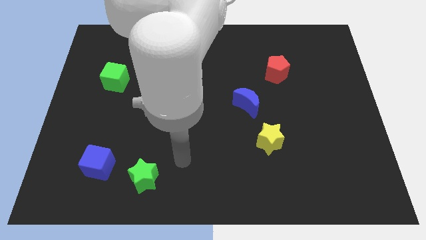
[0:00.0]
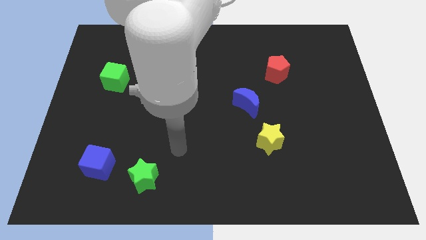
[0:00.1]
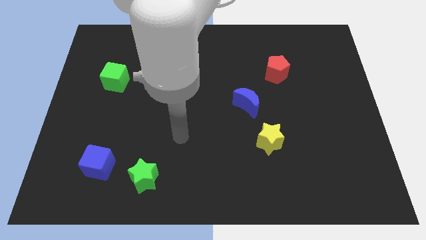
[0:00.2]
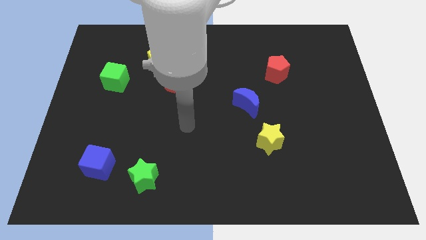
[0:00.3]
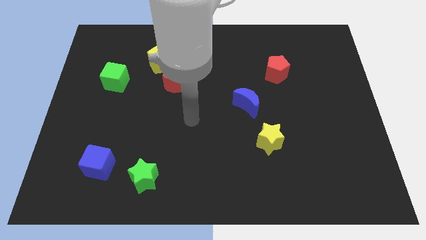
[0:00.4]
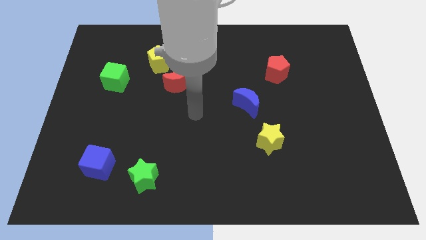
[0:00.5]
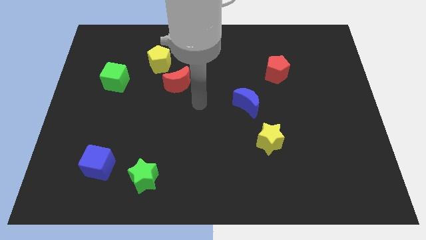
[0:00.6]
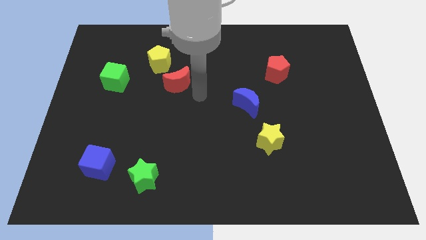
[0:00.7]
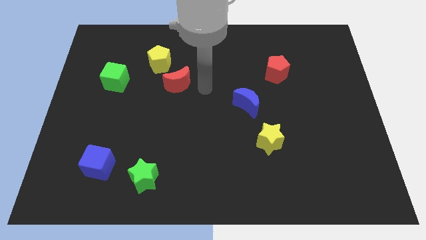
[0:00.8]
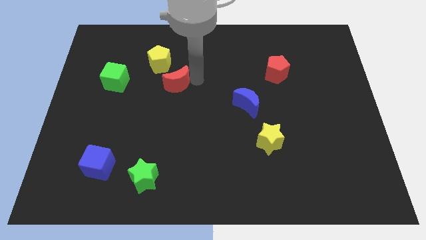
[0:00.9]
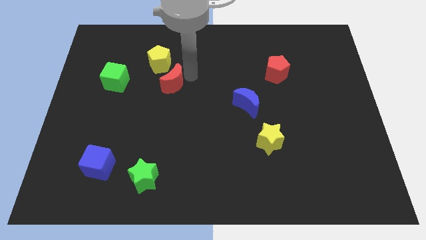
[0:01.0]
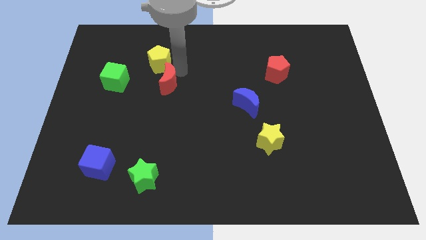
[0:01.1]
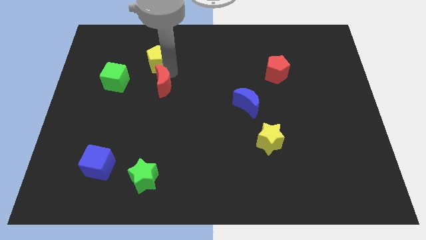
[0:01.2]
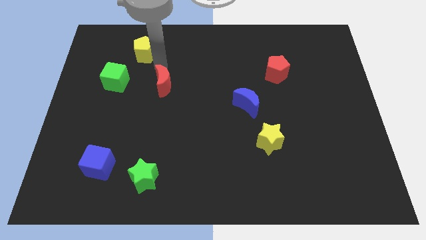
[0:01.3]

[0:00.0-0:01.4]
move the red moon away from the yellow pentagon

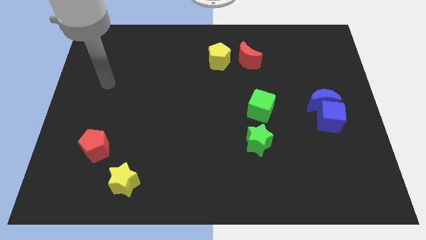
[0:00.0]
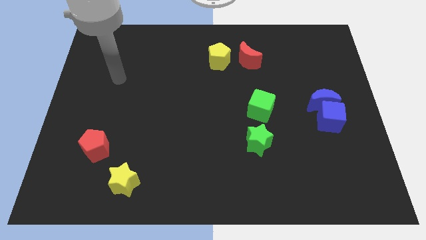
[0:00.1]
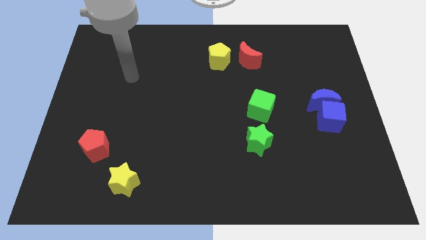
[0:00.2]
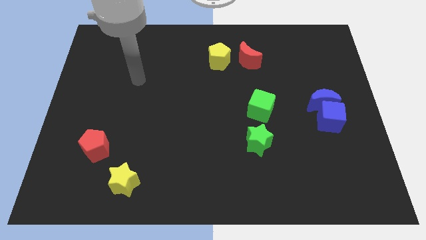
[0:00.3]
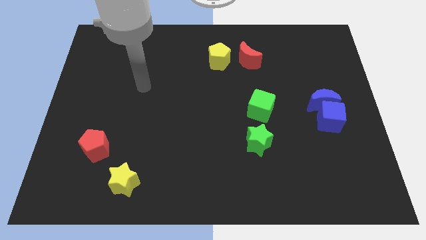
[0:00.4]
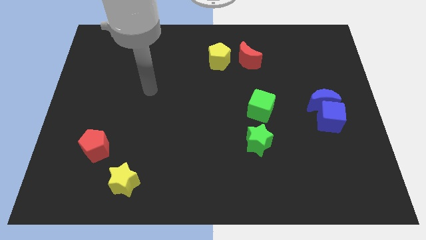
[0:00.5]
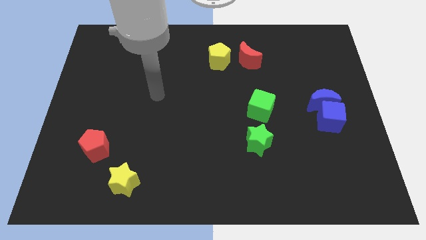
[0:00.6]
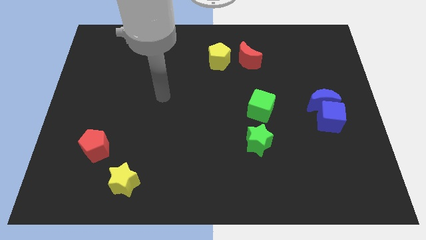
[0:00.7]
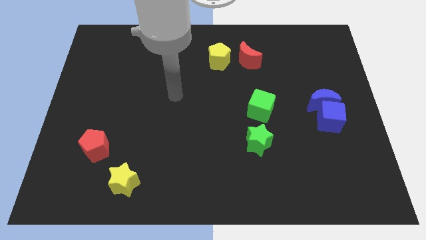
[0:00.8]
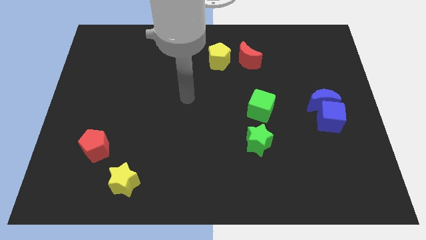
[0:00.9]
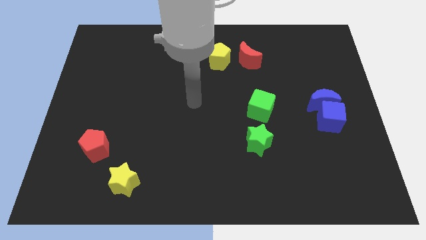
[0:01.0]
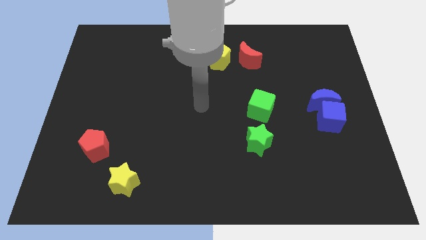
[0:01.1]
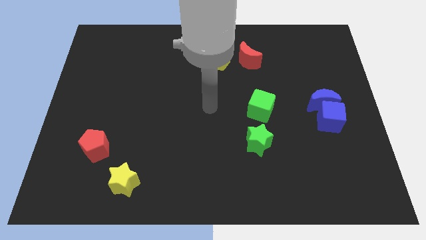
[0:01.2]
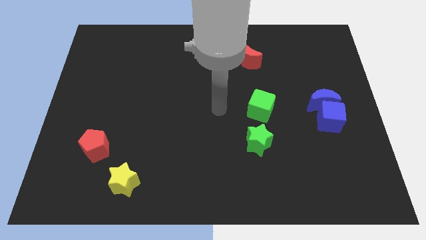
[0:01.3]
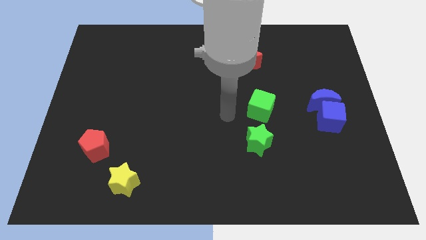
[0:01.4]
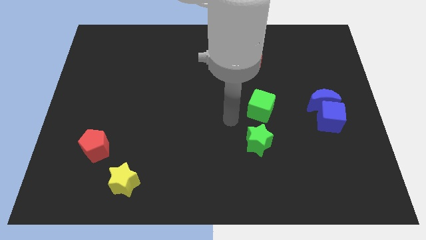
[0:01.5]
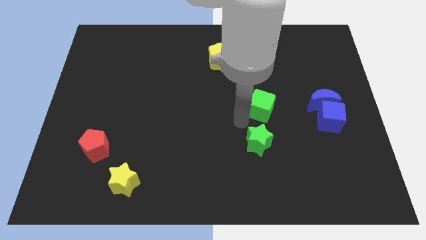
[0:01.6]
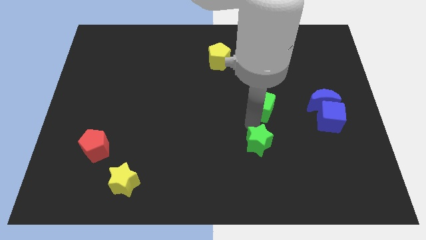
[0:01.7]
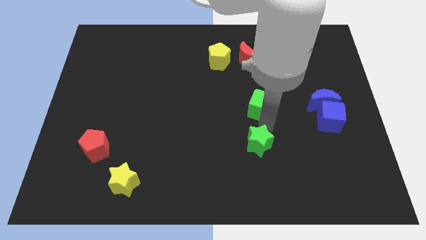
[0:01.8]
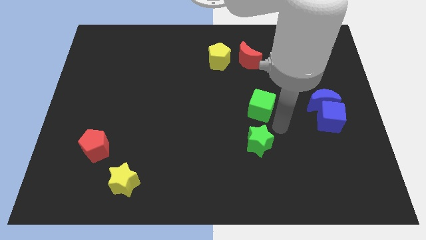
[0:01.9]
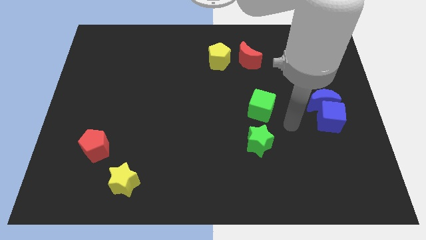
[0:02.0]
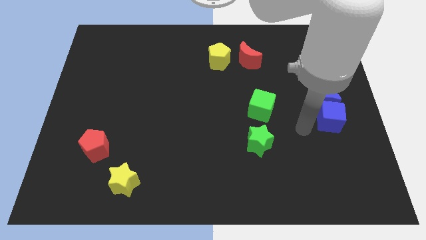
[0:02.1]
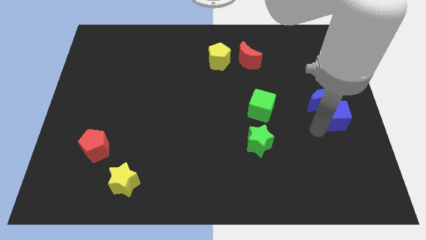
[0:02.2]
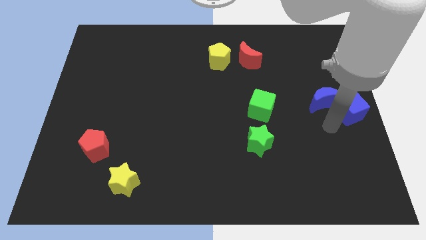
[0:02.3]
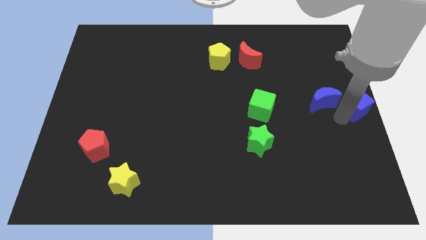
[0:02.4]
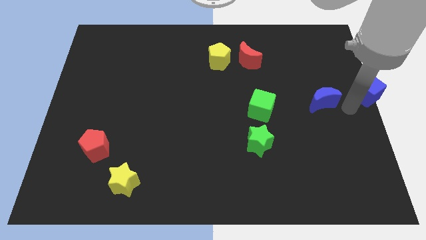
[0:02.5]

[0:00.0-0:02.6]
pull the blue moon apart from the blue cube

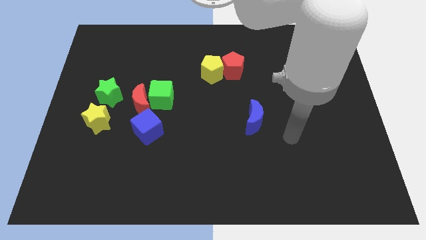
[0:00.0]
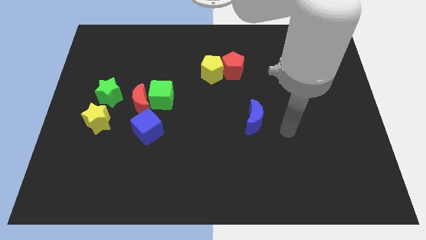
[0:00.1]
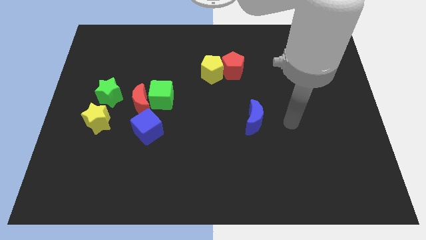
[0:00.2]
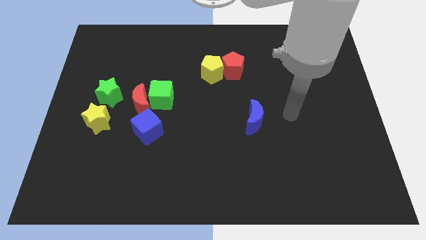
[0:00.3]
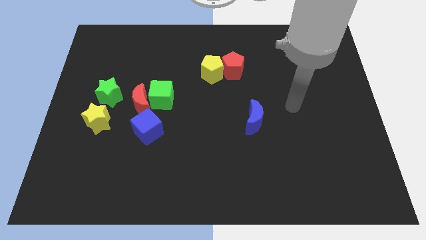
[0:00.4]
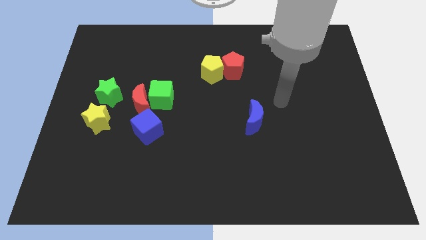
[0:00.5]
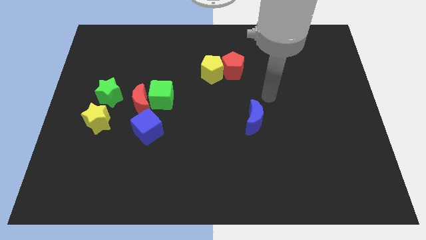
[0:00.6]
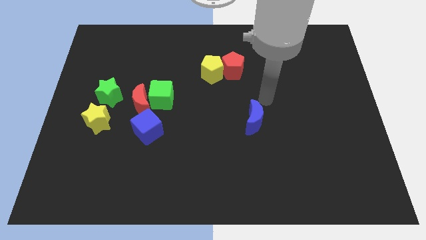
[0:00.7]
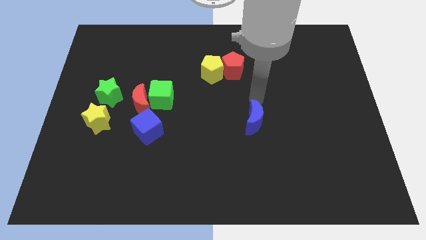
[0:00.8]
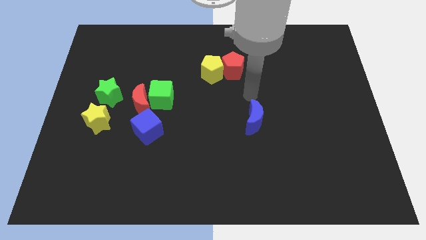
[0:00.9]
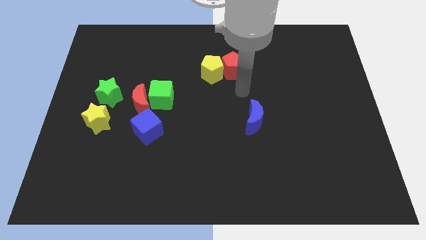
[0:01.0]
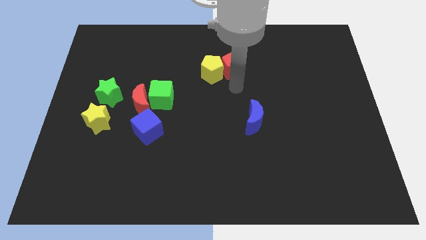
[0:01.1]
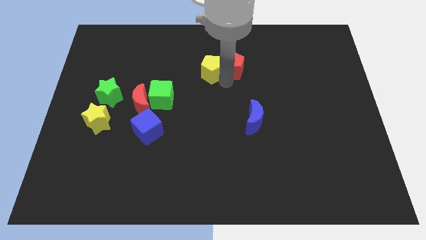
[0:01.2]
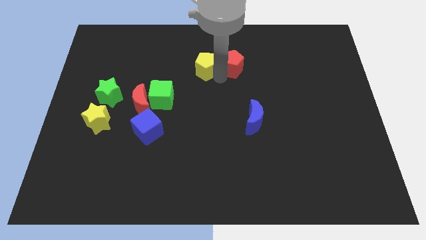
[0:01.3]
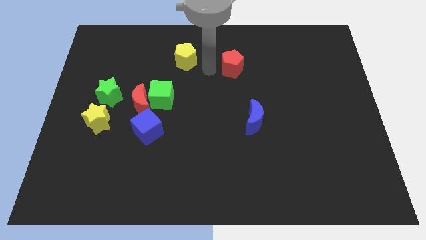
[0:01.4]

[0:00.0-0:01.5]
separate the red pentagon from the yellow pentagon

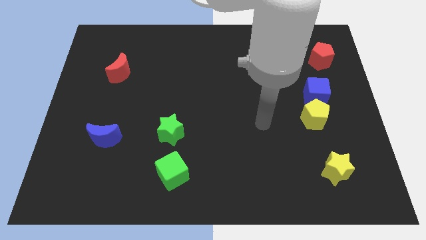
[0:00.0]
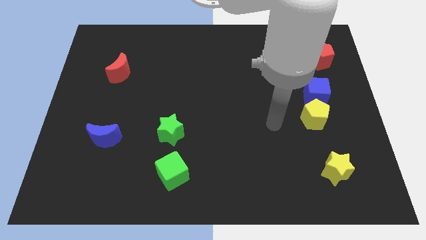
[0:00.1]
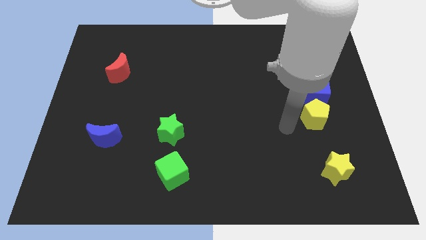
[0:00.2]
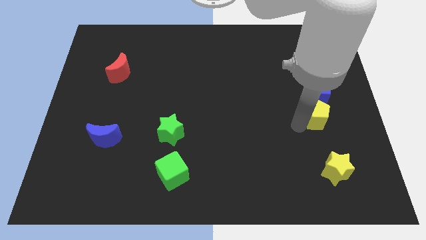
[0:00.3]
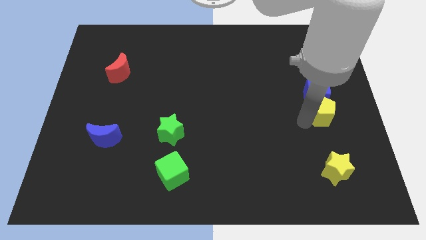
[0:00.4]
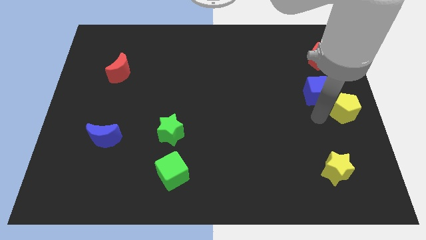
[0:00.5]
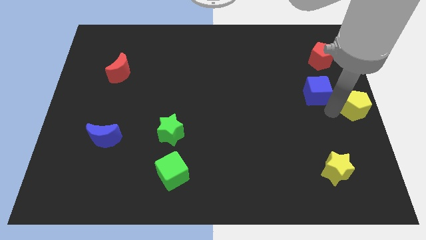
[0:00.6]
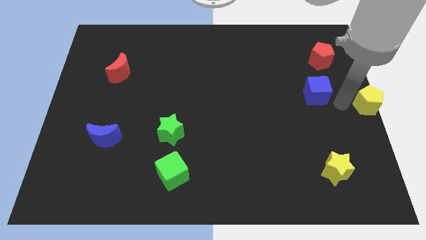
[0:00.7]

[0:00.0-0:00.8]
separate the blue cube from the yellow pentagon

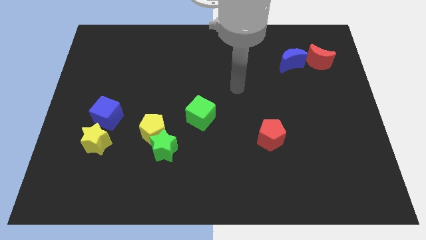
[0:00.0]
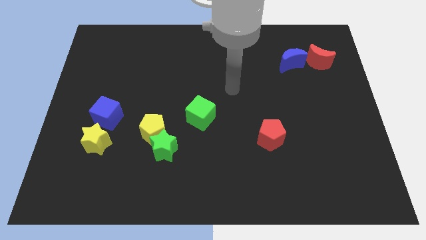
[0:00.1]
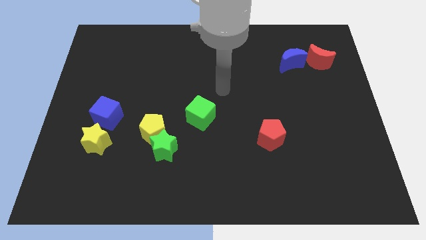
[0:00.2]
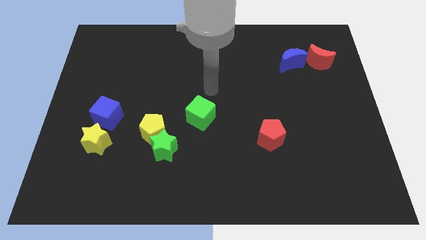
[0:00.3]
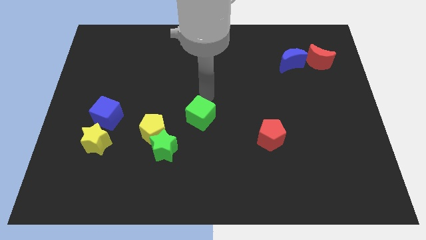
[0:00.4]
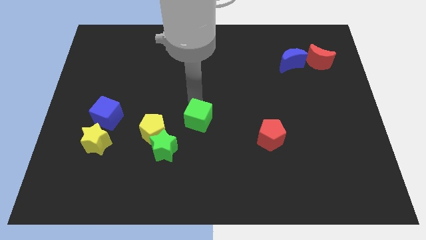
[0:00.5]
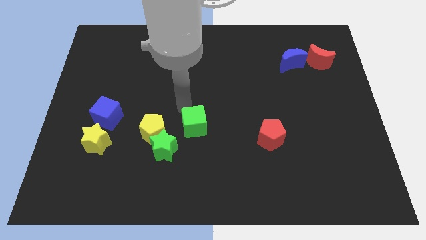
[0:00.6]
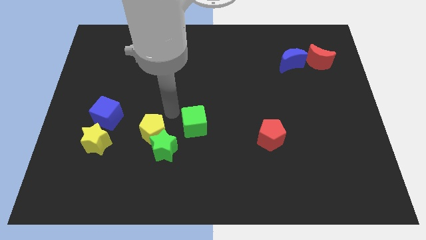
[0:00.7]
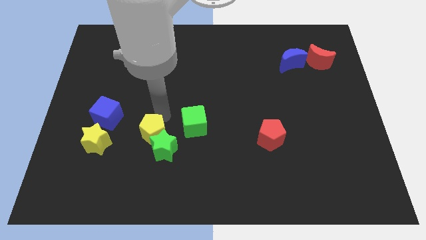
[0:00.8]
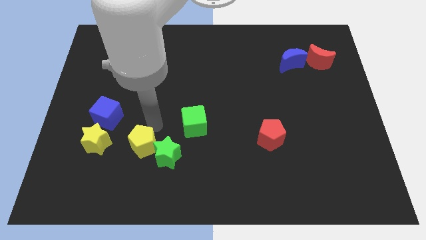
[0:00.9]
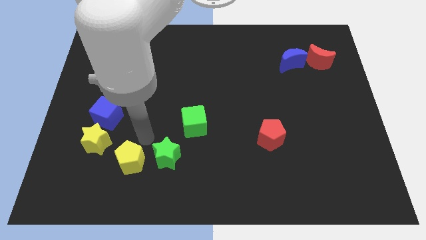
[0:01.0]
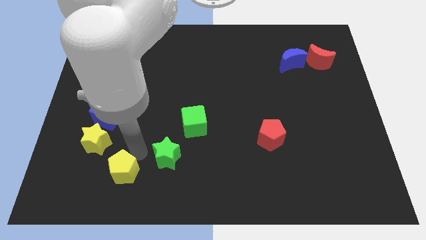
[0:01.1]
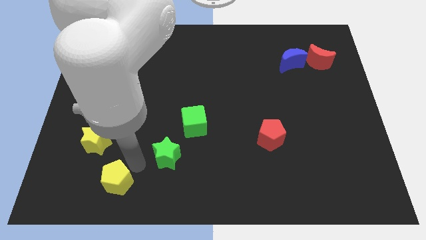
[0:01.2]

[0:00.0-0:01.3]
pull the green star apart from the yellow pentagon

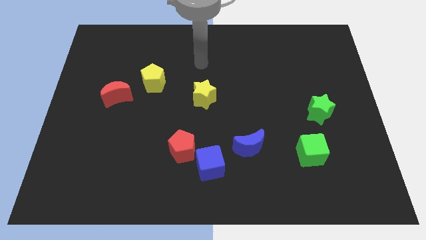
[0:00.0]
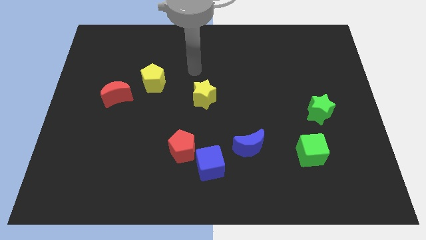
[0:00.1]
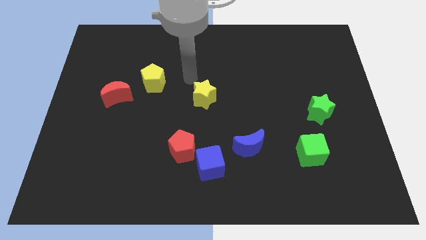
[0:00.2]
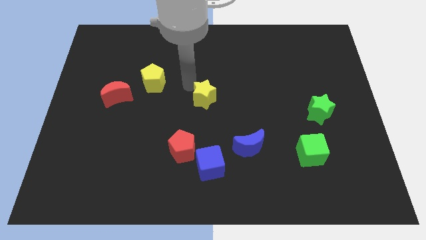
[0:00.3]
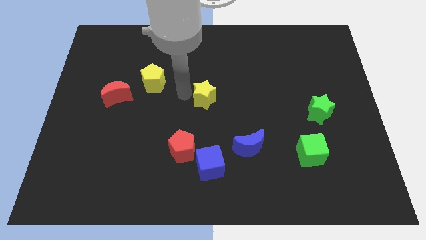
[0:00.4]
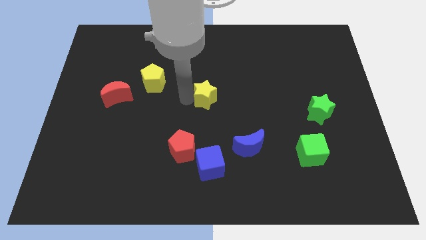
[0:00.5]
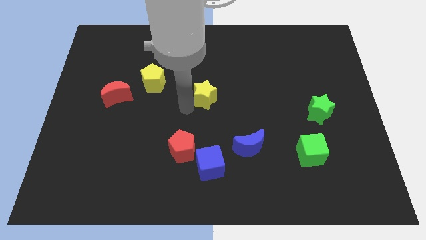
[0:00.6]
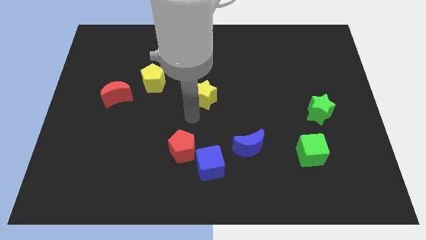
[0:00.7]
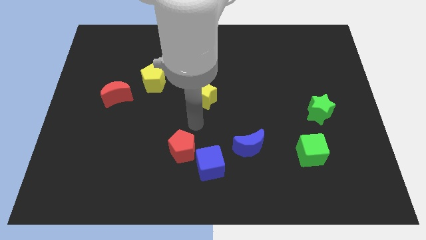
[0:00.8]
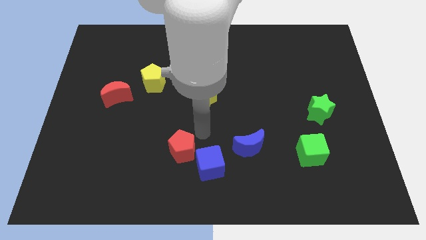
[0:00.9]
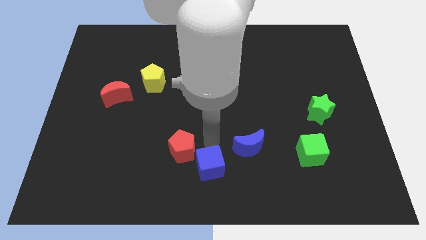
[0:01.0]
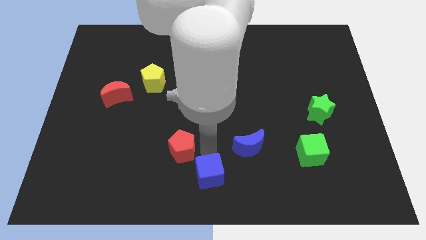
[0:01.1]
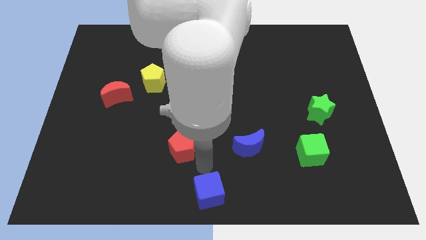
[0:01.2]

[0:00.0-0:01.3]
move the red pentagon away from the blue cube

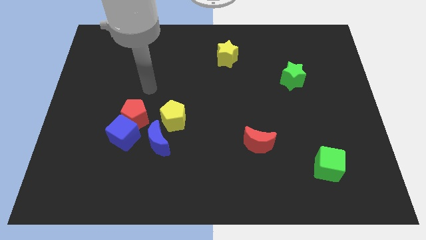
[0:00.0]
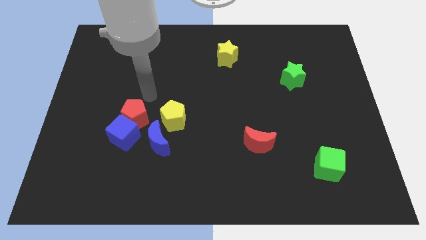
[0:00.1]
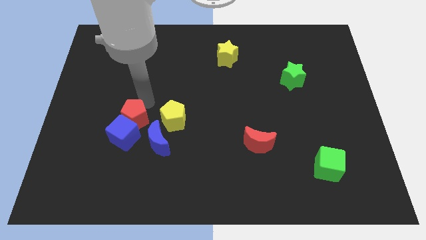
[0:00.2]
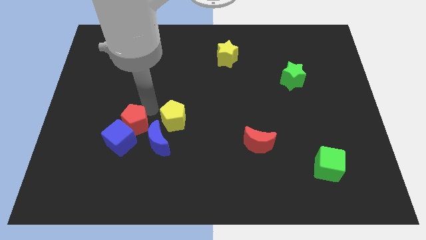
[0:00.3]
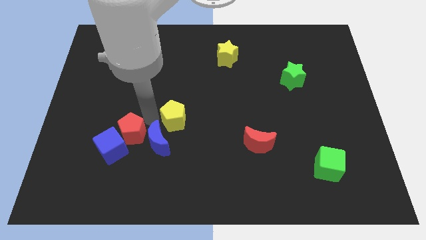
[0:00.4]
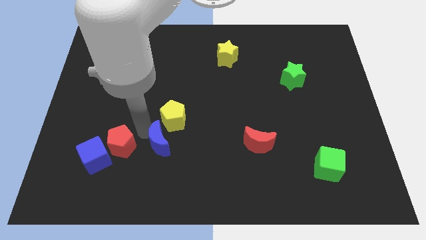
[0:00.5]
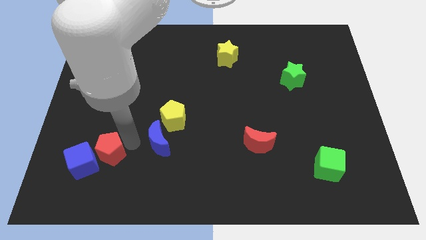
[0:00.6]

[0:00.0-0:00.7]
separate the blue cube from the red pentagon and blue moon
